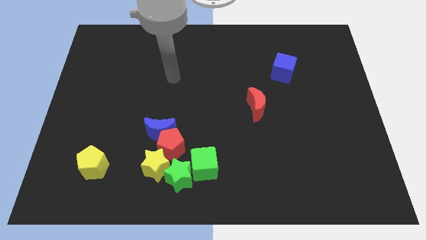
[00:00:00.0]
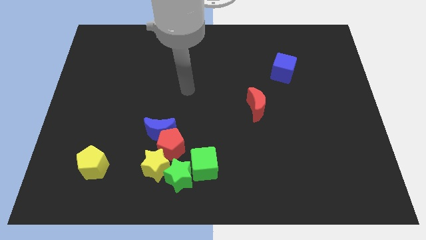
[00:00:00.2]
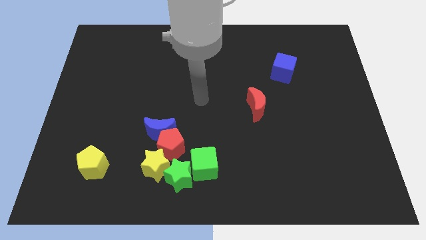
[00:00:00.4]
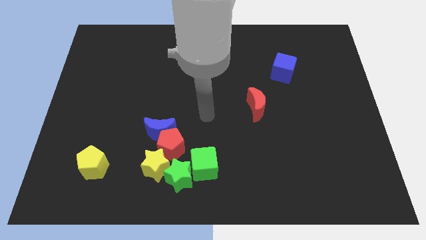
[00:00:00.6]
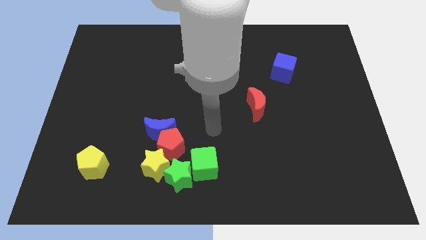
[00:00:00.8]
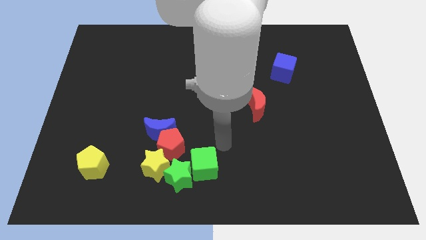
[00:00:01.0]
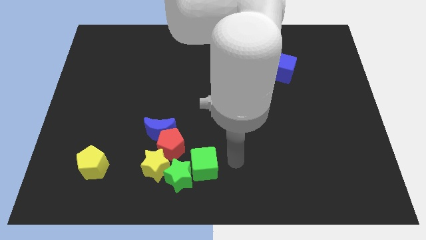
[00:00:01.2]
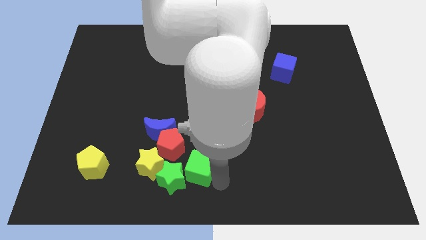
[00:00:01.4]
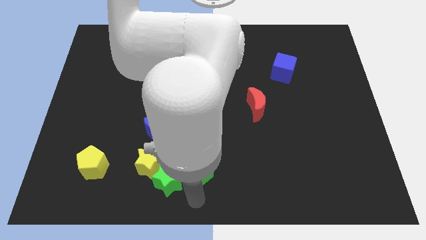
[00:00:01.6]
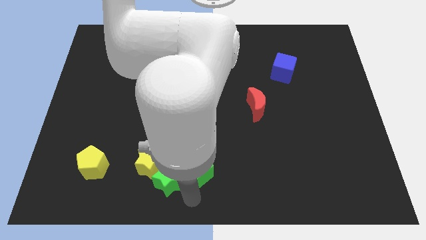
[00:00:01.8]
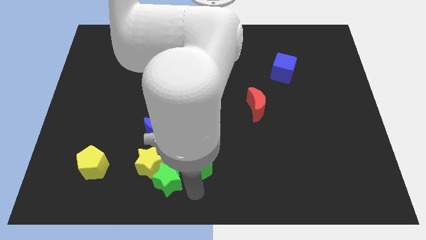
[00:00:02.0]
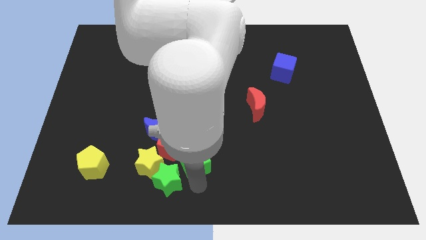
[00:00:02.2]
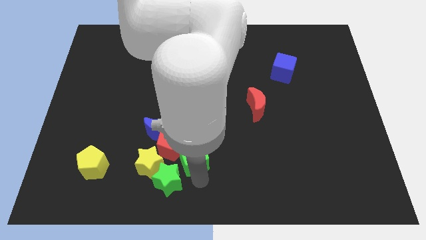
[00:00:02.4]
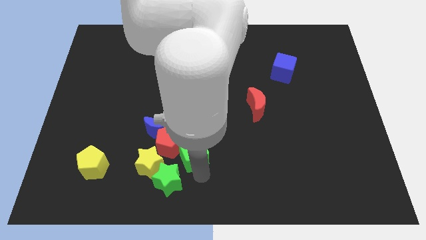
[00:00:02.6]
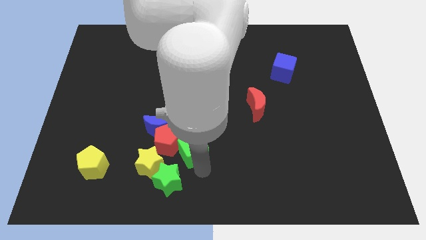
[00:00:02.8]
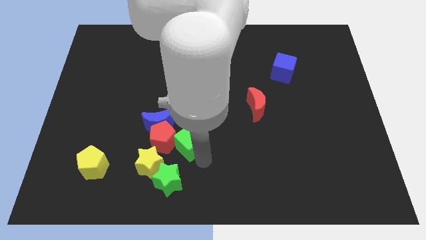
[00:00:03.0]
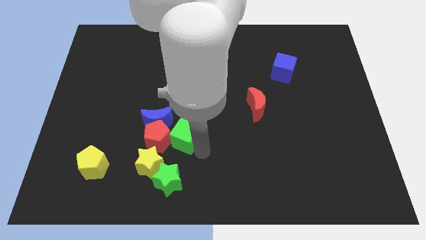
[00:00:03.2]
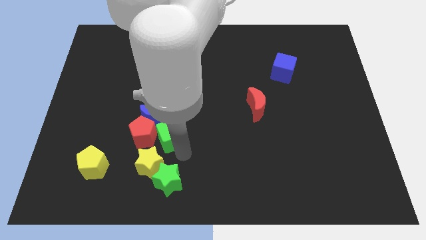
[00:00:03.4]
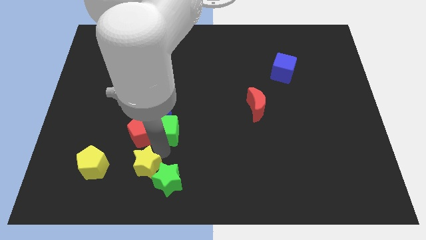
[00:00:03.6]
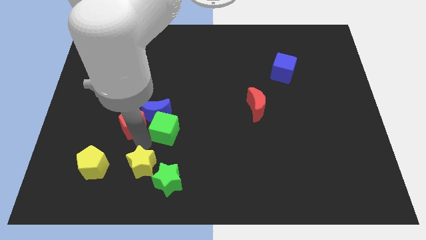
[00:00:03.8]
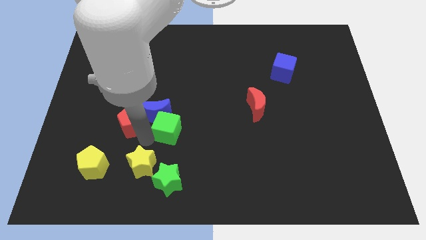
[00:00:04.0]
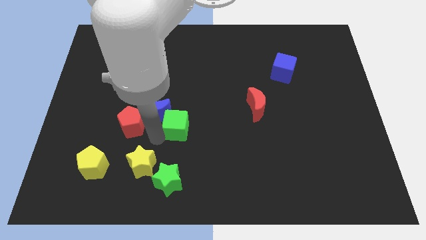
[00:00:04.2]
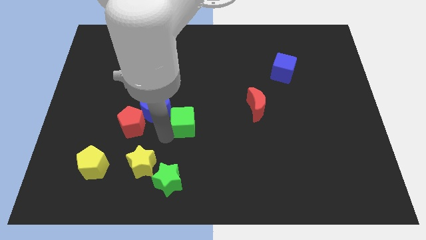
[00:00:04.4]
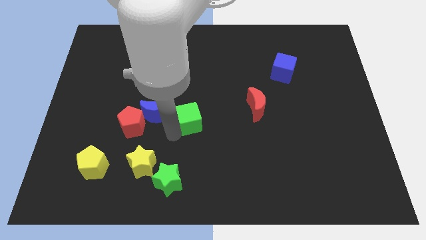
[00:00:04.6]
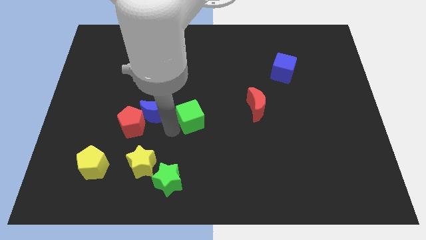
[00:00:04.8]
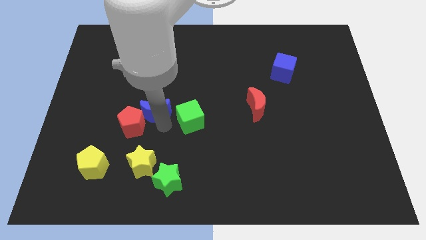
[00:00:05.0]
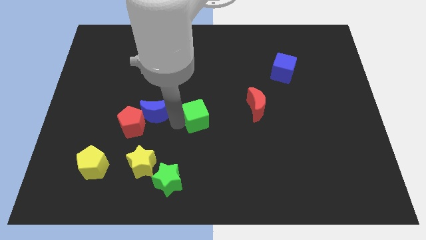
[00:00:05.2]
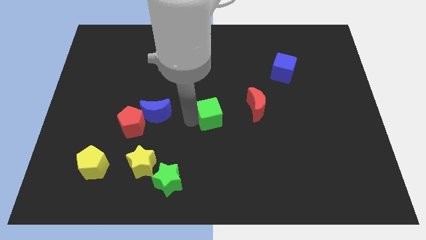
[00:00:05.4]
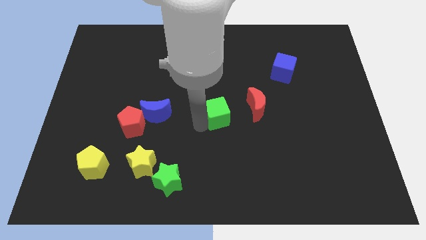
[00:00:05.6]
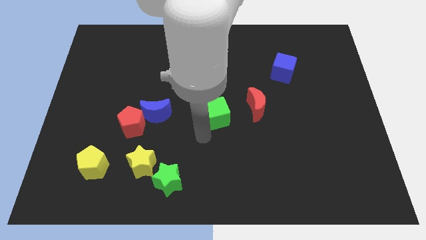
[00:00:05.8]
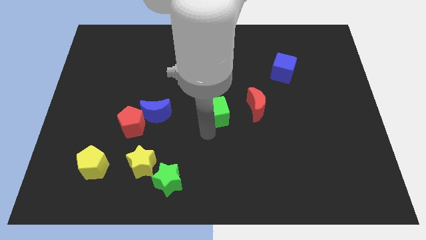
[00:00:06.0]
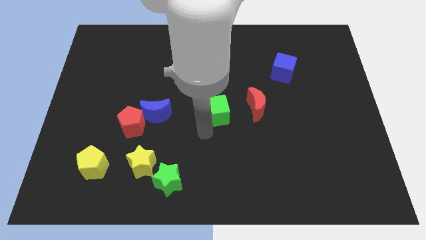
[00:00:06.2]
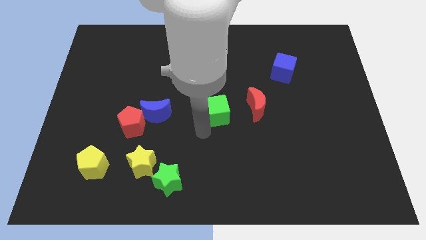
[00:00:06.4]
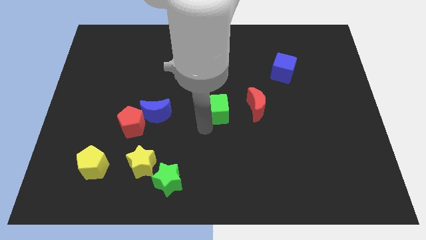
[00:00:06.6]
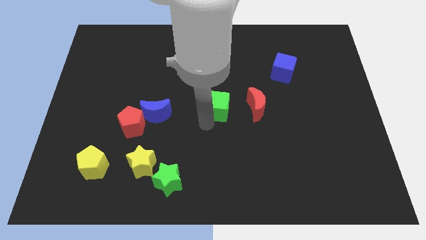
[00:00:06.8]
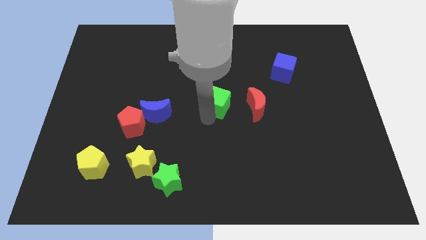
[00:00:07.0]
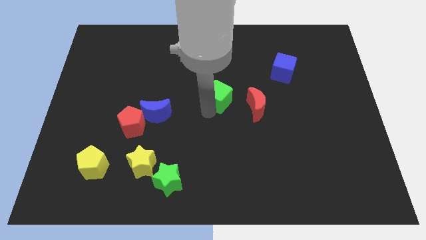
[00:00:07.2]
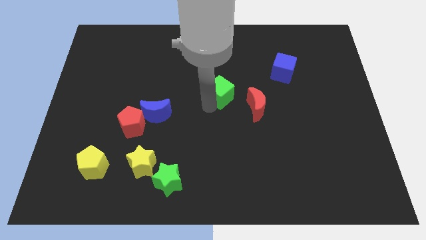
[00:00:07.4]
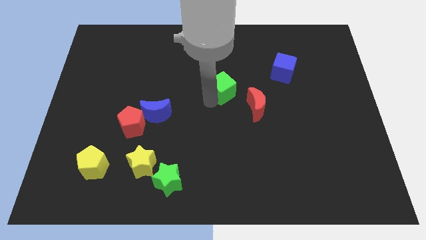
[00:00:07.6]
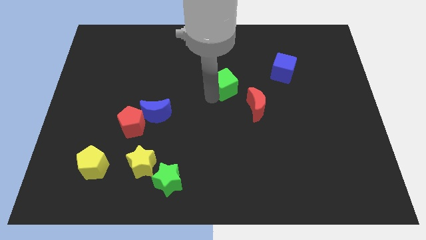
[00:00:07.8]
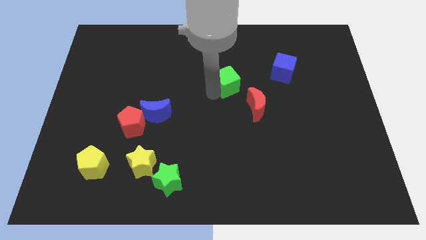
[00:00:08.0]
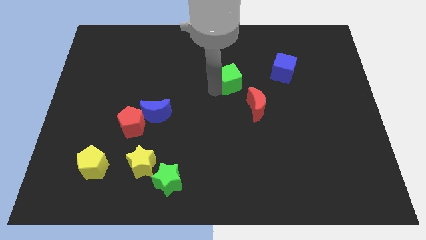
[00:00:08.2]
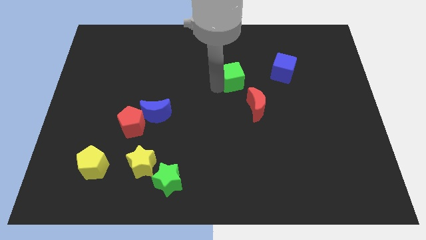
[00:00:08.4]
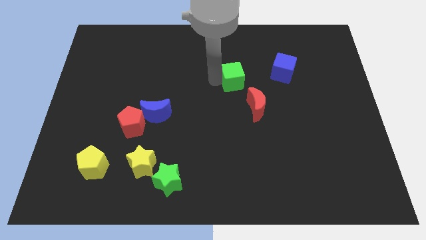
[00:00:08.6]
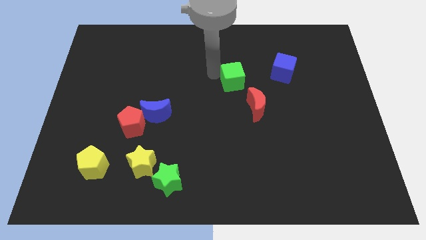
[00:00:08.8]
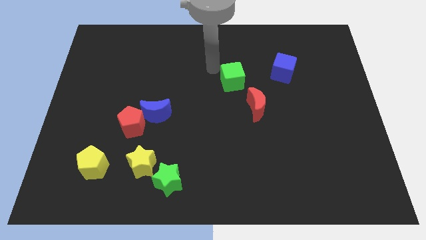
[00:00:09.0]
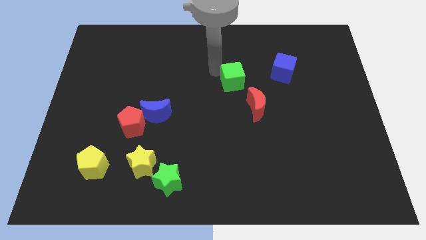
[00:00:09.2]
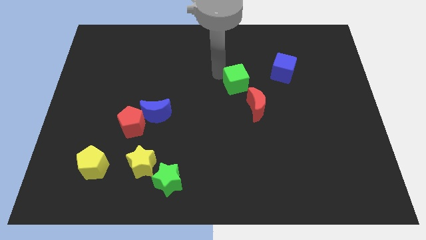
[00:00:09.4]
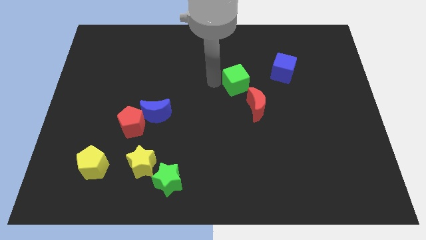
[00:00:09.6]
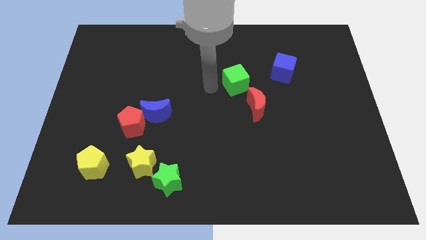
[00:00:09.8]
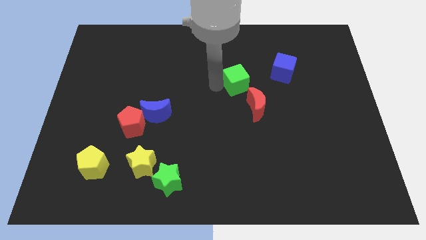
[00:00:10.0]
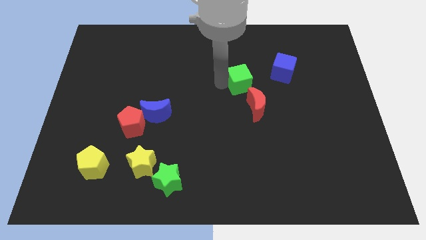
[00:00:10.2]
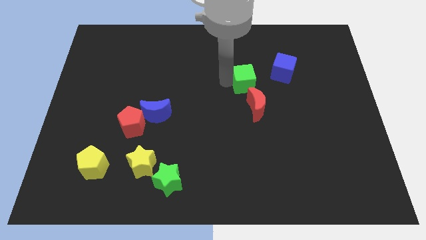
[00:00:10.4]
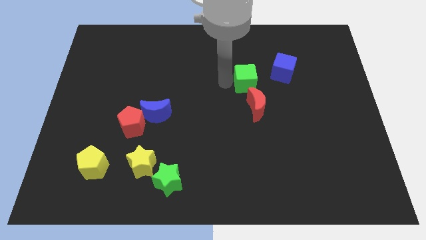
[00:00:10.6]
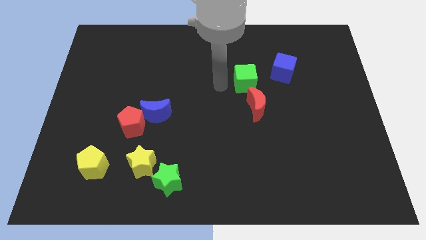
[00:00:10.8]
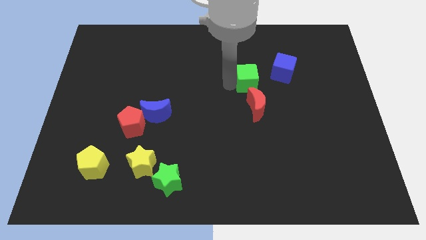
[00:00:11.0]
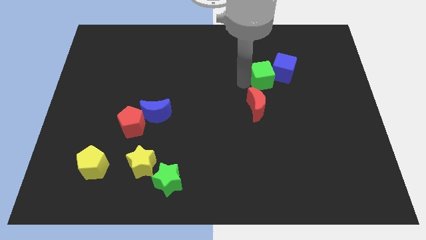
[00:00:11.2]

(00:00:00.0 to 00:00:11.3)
slide the green cube close to the blue cube

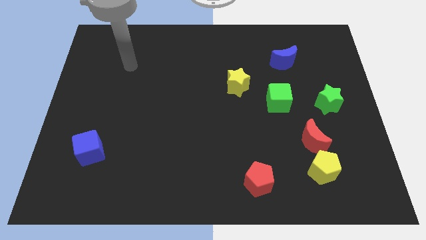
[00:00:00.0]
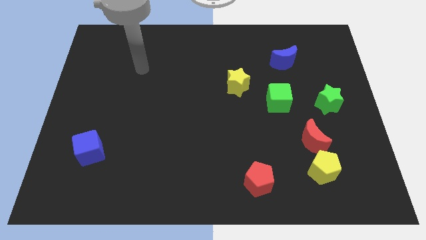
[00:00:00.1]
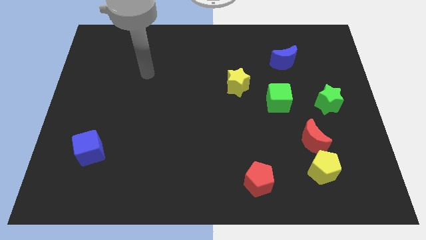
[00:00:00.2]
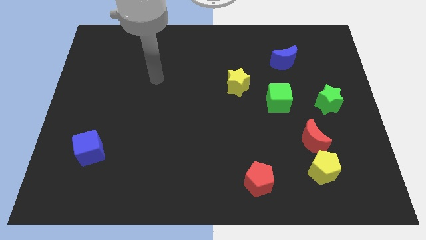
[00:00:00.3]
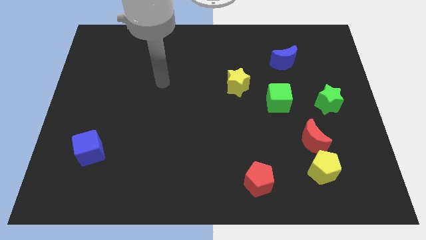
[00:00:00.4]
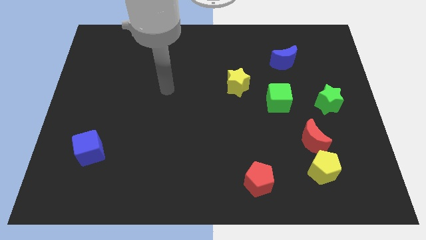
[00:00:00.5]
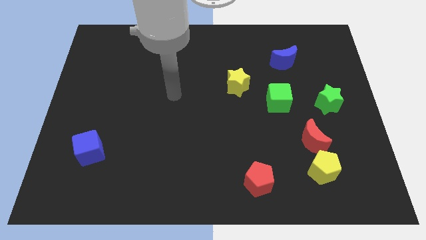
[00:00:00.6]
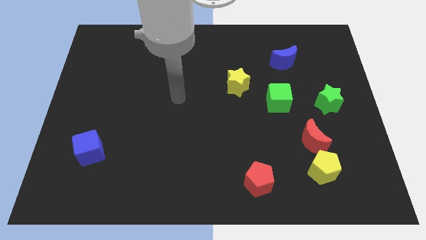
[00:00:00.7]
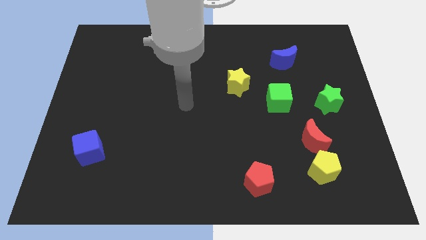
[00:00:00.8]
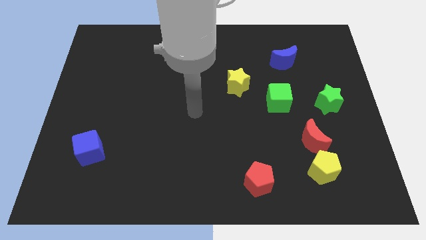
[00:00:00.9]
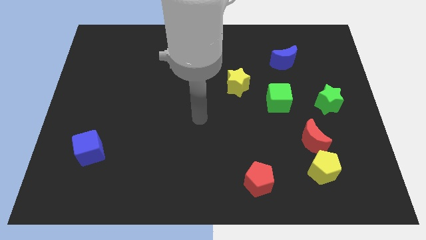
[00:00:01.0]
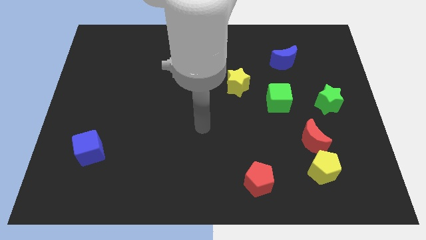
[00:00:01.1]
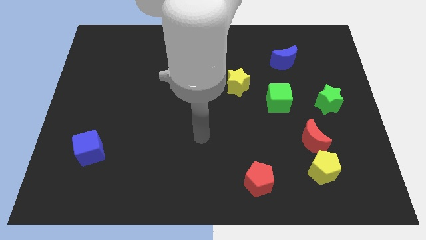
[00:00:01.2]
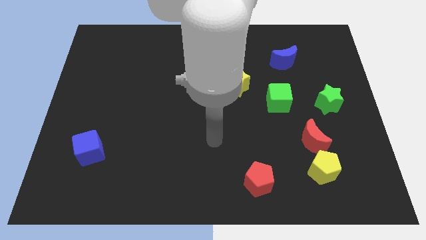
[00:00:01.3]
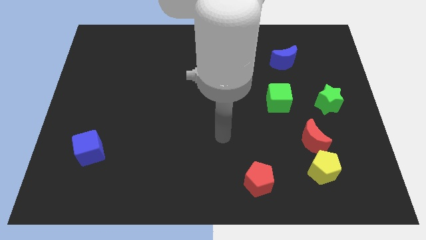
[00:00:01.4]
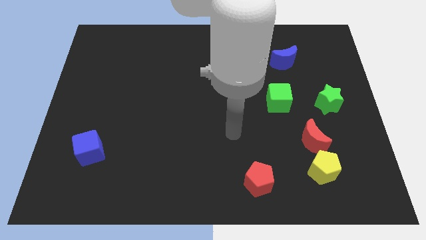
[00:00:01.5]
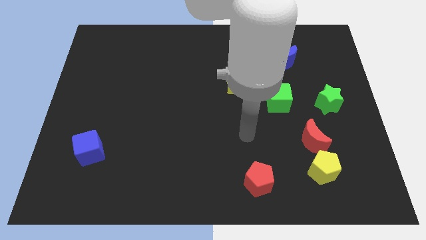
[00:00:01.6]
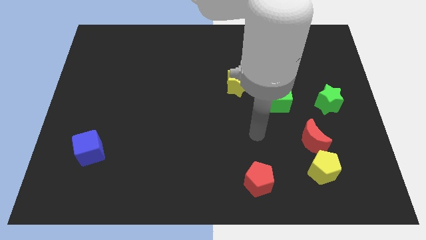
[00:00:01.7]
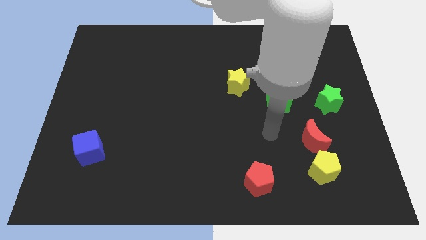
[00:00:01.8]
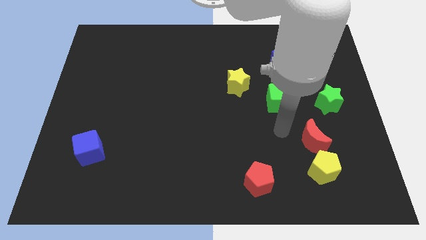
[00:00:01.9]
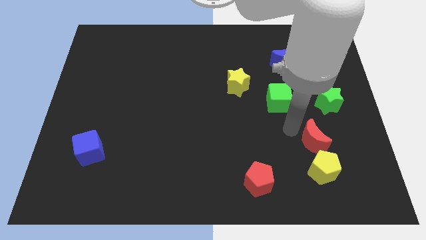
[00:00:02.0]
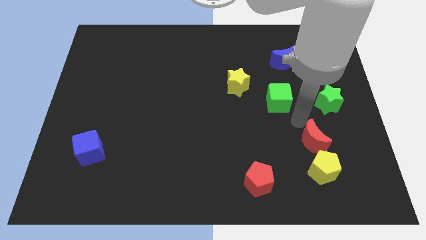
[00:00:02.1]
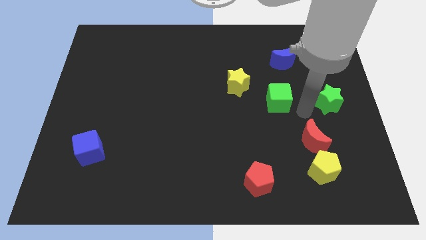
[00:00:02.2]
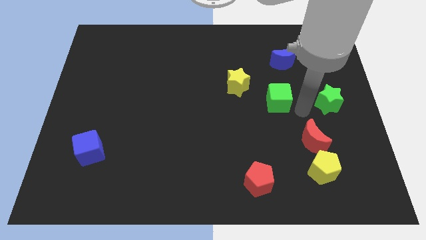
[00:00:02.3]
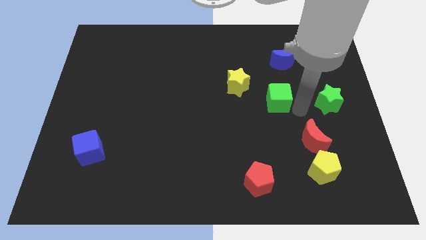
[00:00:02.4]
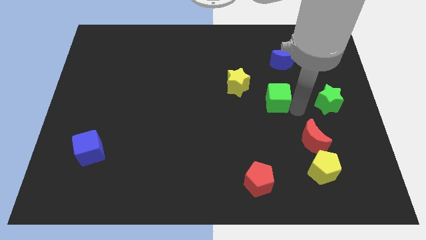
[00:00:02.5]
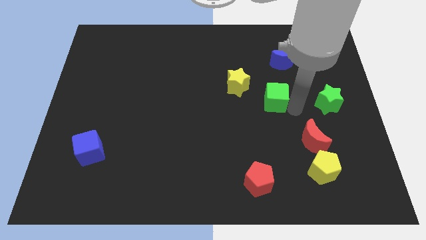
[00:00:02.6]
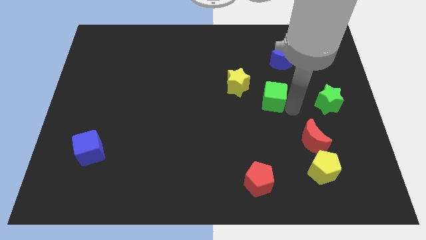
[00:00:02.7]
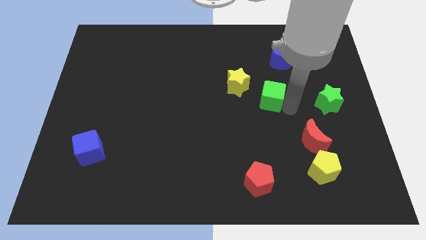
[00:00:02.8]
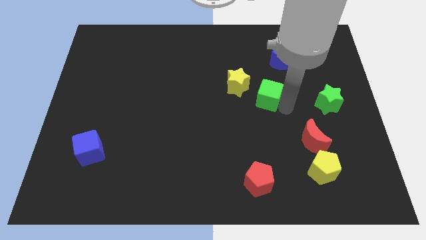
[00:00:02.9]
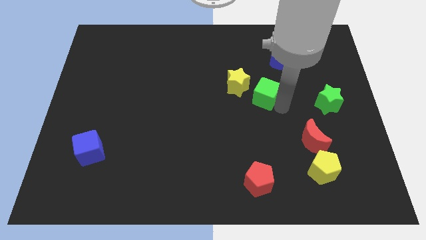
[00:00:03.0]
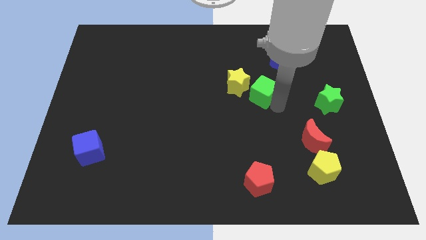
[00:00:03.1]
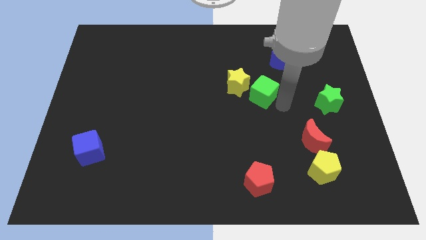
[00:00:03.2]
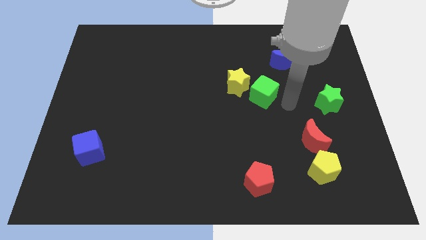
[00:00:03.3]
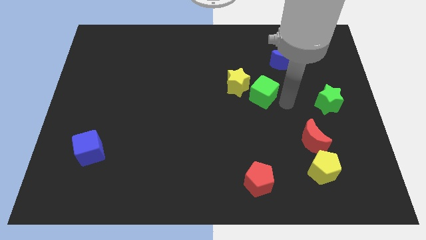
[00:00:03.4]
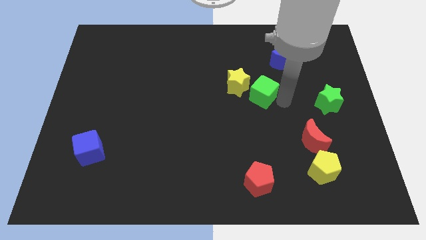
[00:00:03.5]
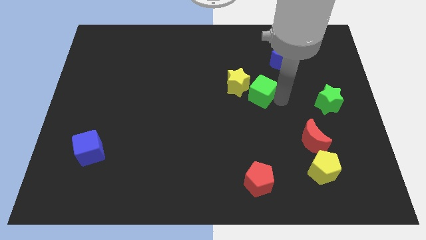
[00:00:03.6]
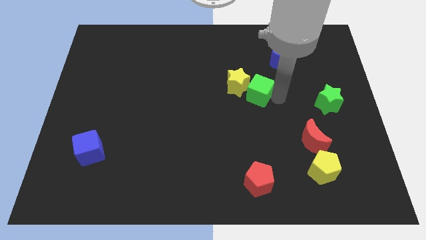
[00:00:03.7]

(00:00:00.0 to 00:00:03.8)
slide the green cube to the yellow star
